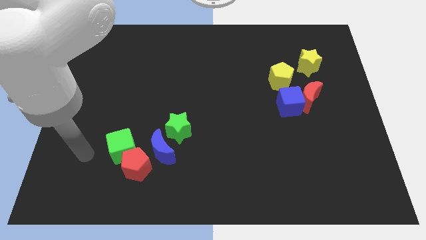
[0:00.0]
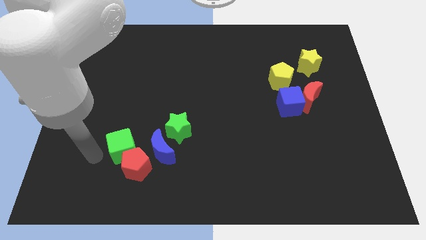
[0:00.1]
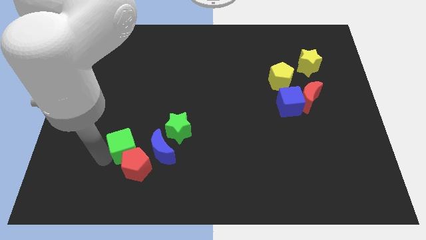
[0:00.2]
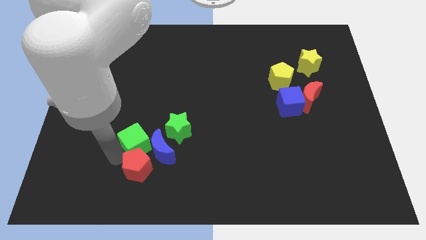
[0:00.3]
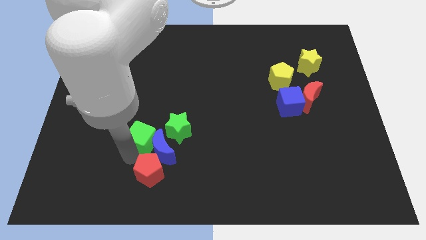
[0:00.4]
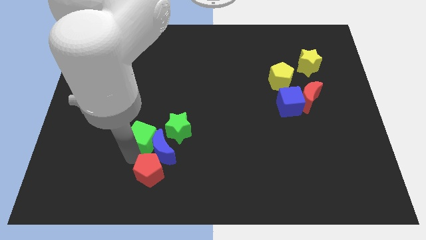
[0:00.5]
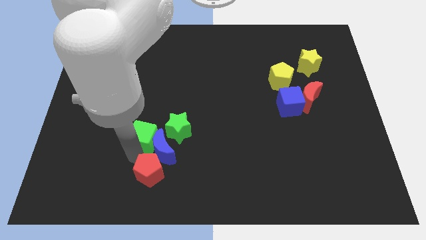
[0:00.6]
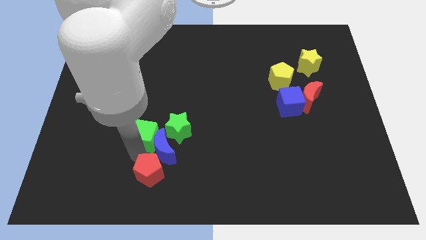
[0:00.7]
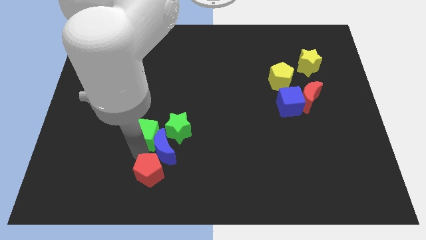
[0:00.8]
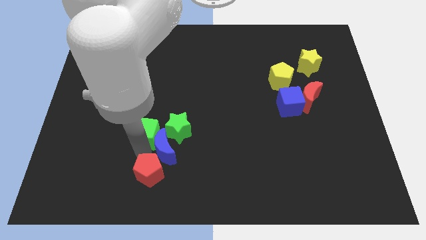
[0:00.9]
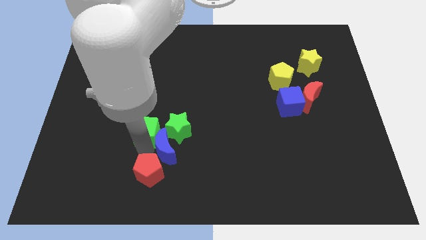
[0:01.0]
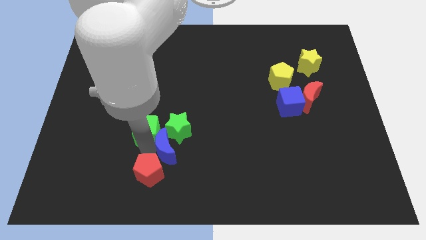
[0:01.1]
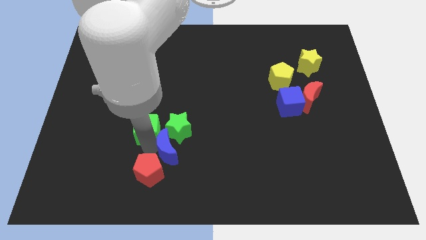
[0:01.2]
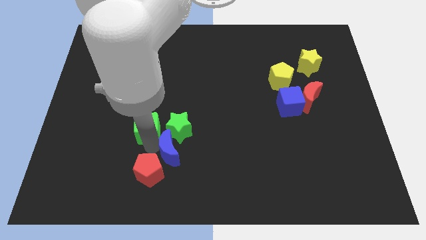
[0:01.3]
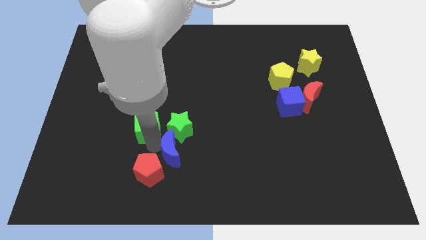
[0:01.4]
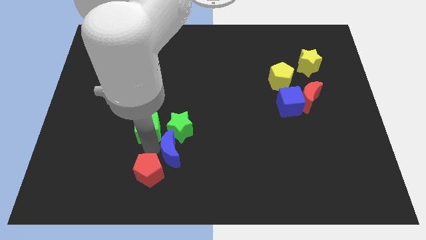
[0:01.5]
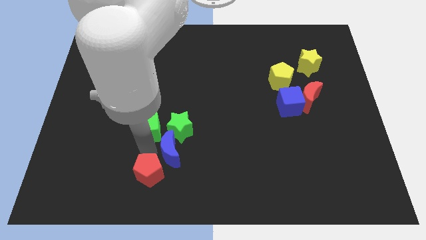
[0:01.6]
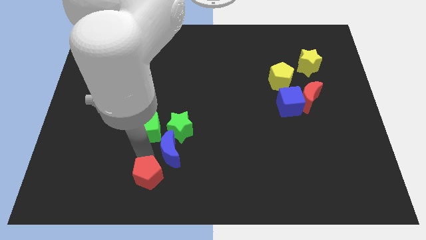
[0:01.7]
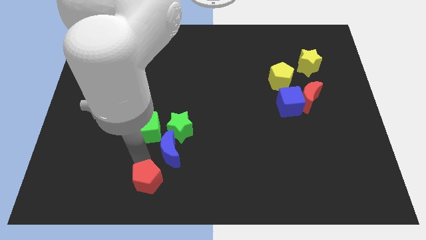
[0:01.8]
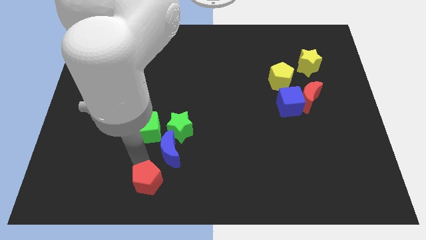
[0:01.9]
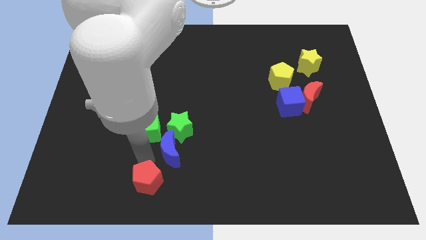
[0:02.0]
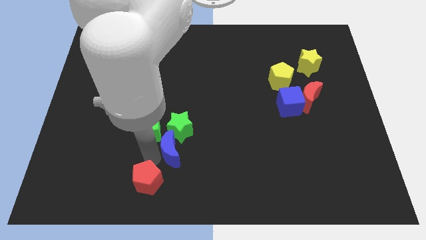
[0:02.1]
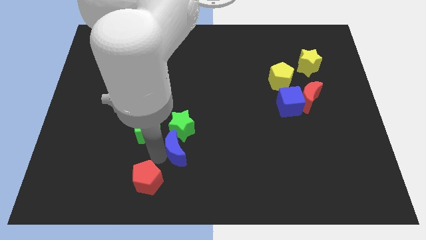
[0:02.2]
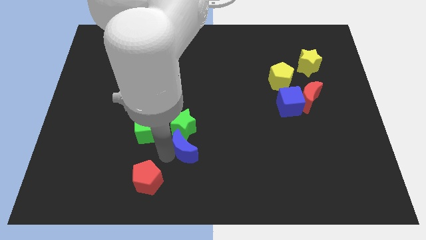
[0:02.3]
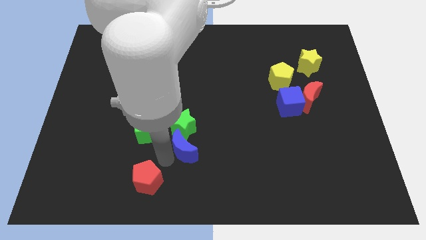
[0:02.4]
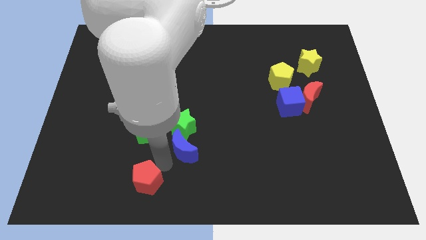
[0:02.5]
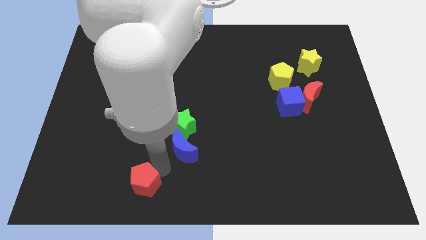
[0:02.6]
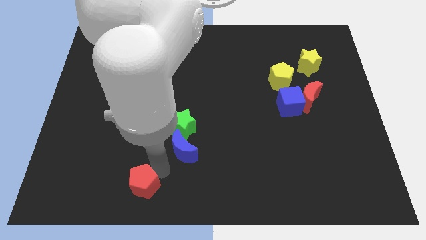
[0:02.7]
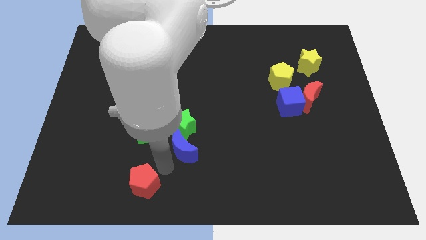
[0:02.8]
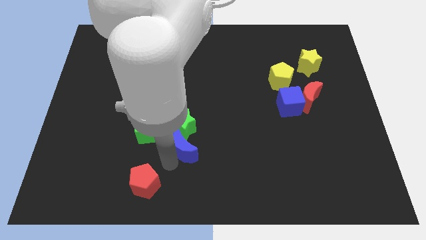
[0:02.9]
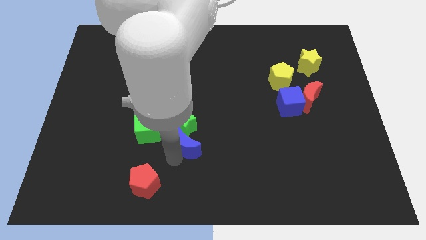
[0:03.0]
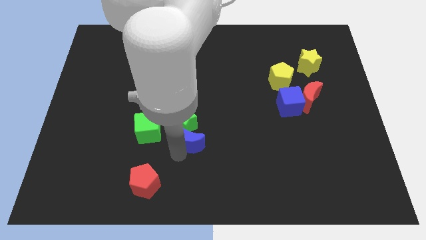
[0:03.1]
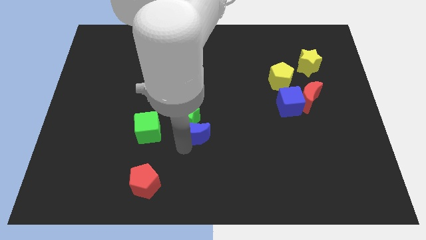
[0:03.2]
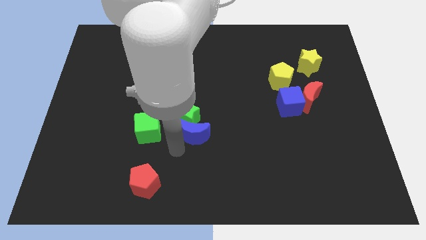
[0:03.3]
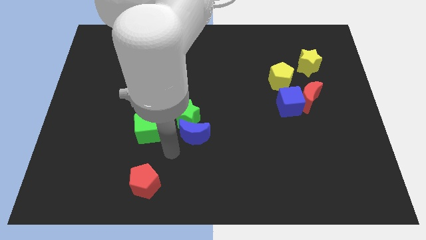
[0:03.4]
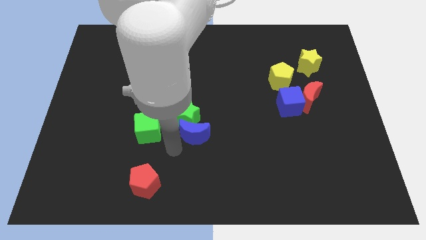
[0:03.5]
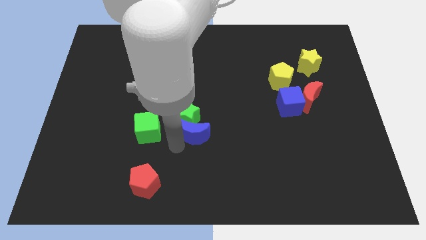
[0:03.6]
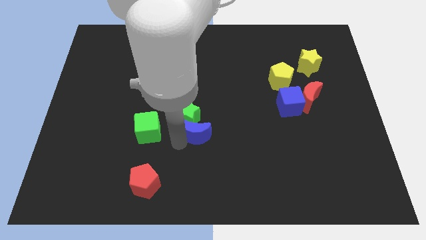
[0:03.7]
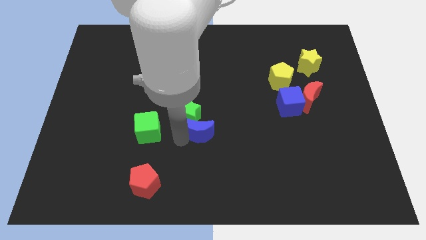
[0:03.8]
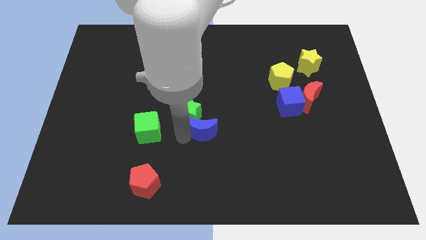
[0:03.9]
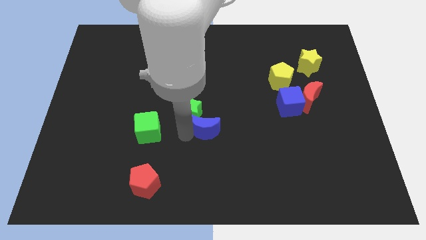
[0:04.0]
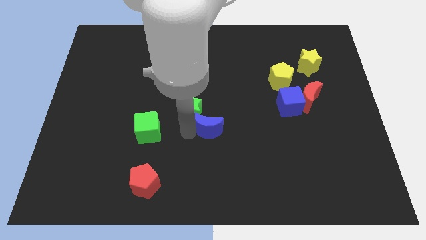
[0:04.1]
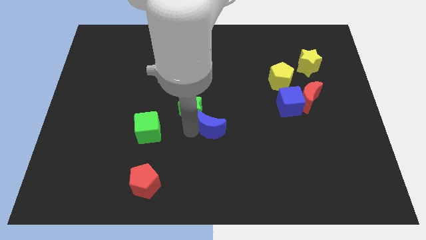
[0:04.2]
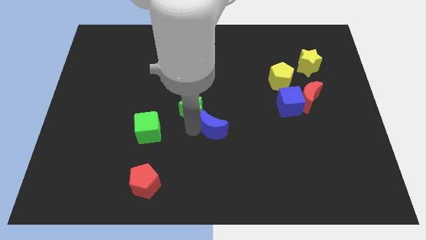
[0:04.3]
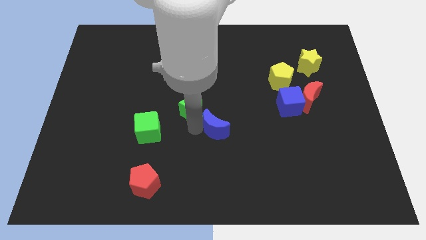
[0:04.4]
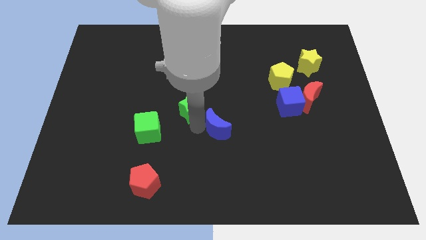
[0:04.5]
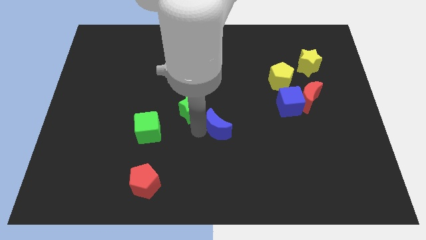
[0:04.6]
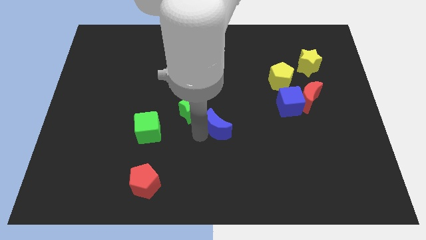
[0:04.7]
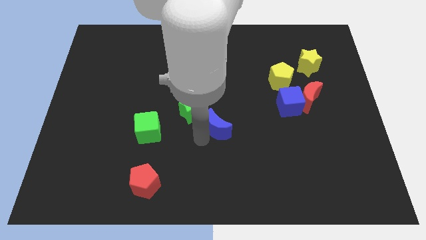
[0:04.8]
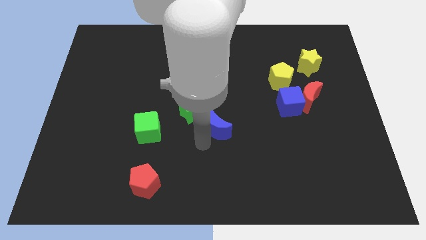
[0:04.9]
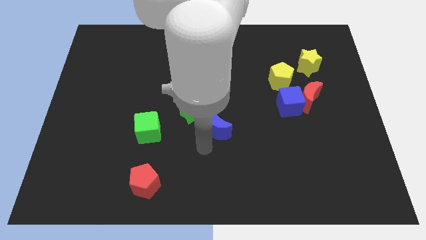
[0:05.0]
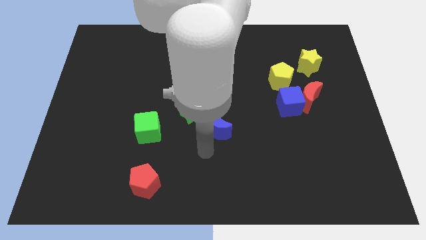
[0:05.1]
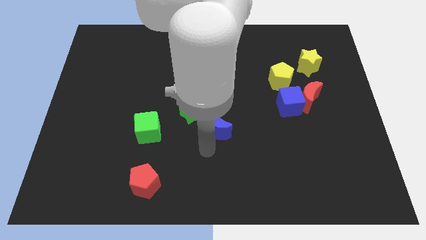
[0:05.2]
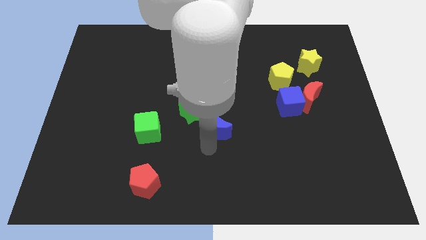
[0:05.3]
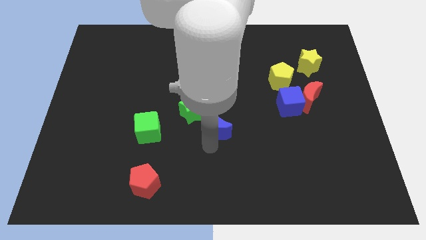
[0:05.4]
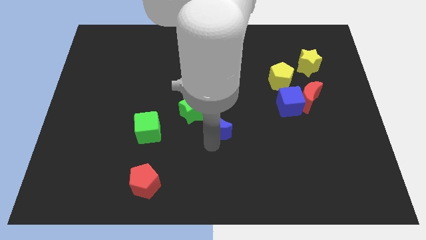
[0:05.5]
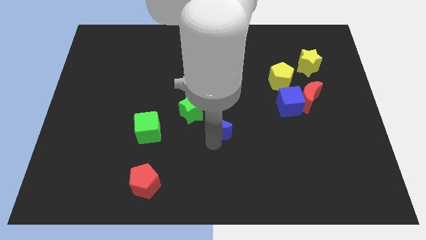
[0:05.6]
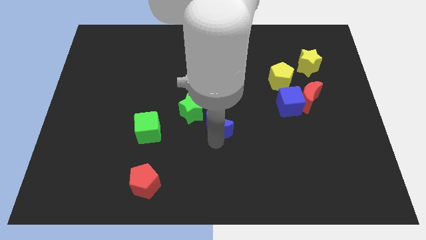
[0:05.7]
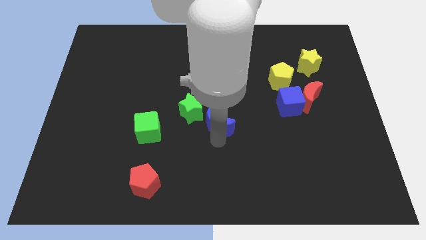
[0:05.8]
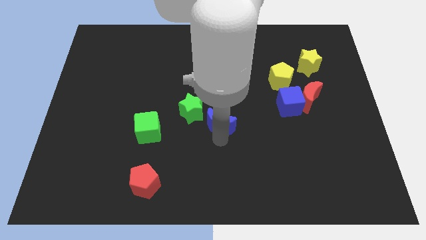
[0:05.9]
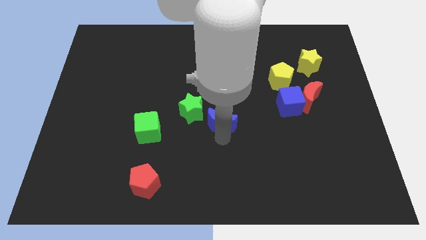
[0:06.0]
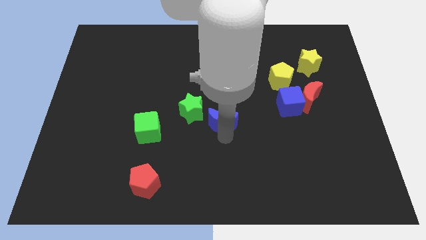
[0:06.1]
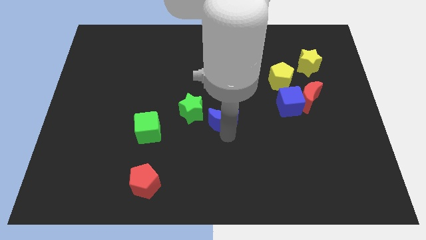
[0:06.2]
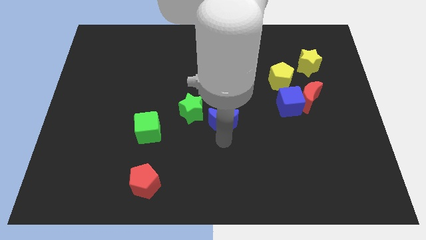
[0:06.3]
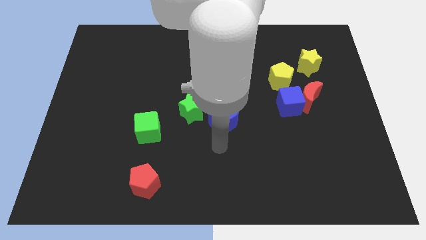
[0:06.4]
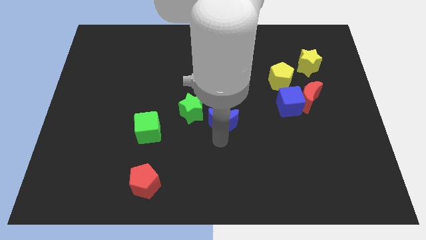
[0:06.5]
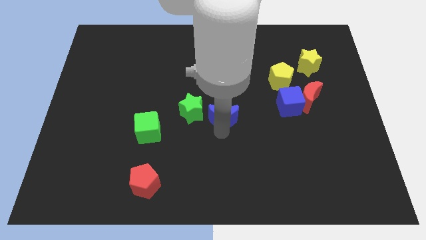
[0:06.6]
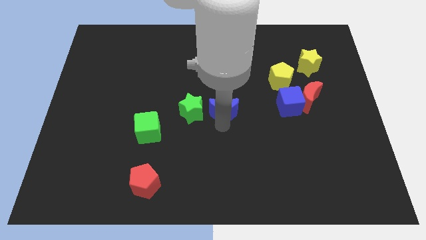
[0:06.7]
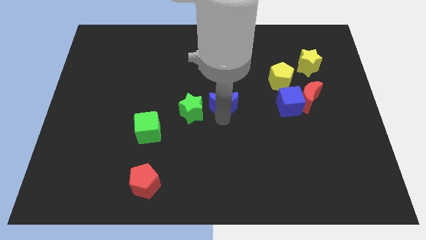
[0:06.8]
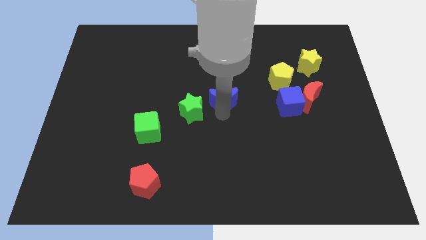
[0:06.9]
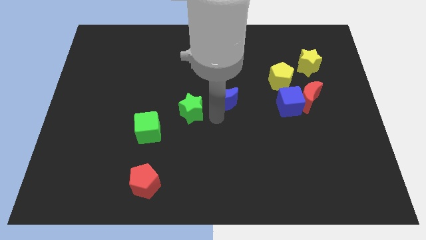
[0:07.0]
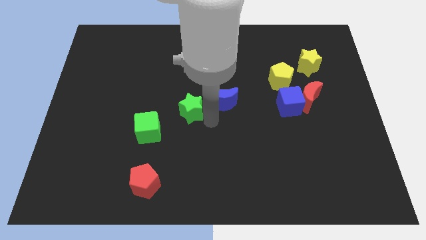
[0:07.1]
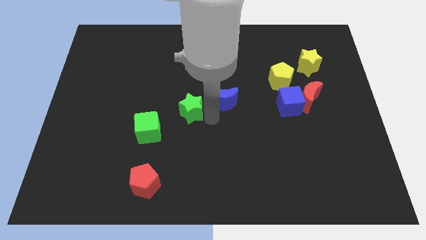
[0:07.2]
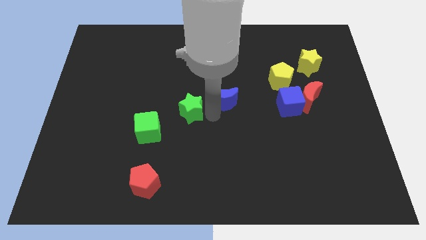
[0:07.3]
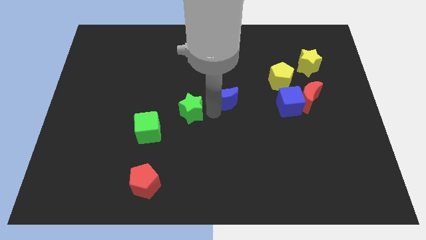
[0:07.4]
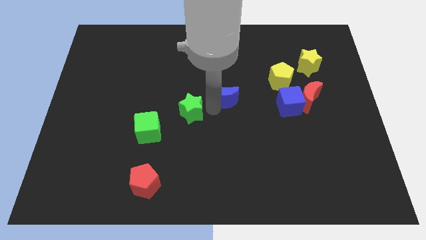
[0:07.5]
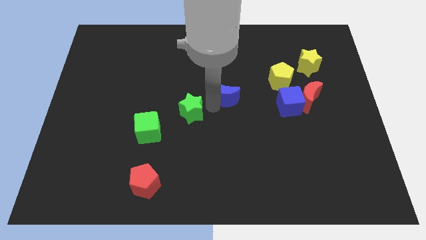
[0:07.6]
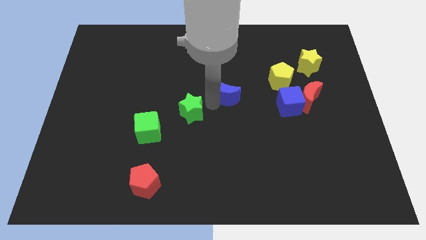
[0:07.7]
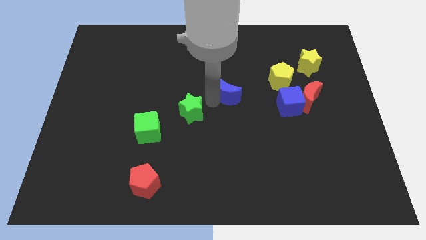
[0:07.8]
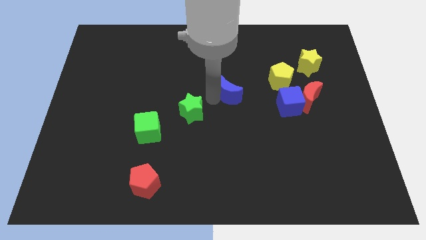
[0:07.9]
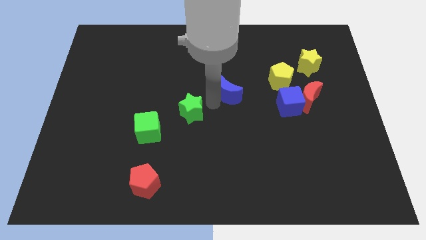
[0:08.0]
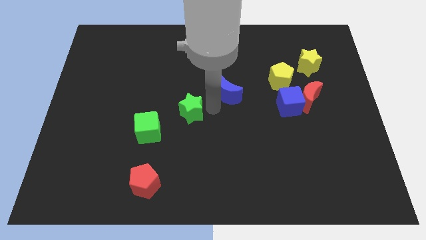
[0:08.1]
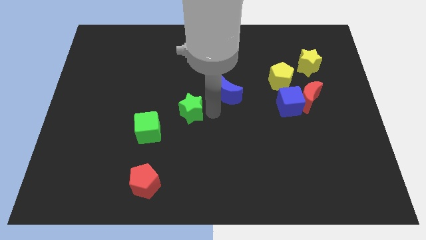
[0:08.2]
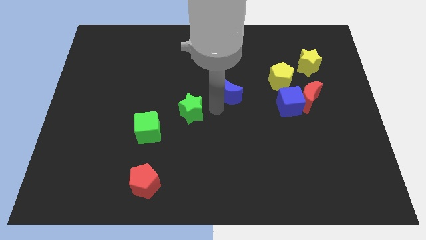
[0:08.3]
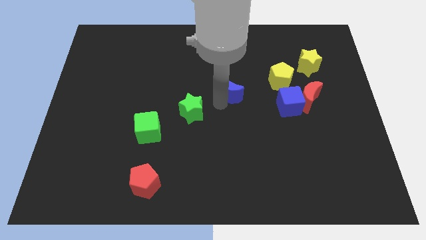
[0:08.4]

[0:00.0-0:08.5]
slide the blue moon left of the yellow pentagon
